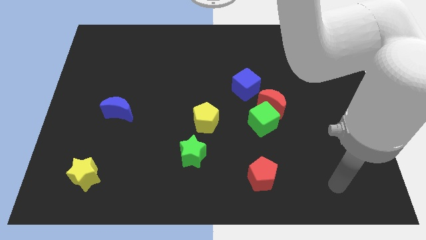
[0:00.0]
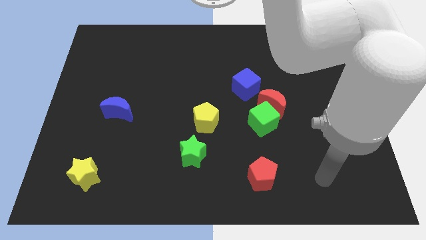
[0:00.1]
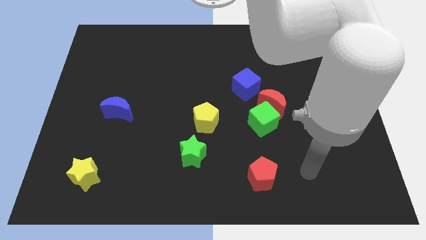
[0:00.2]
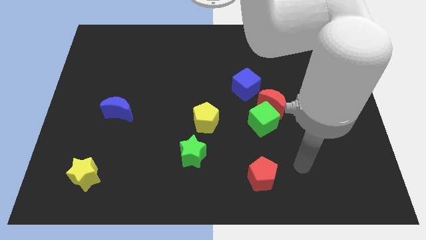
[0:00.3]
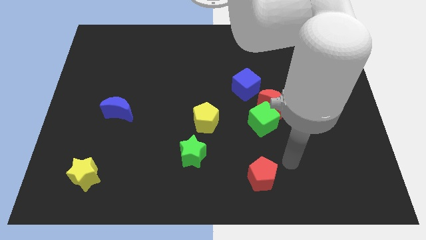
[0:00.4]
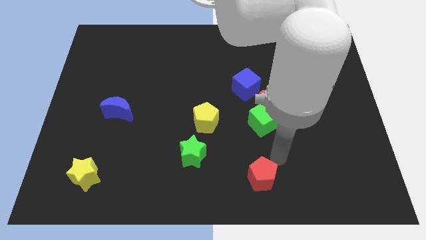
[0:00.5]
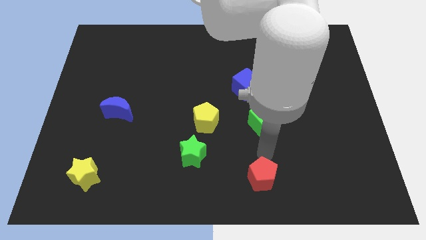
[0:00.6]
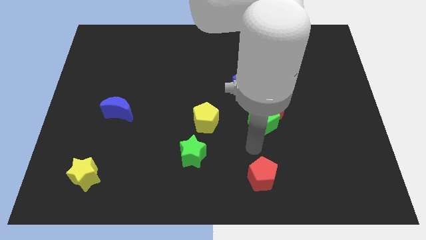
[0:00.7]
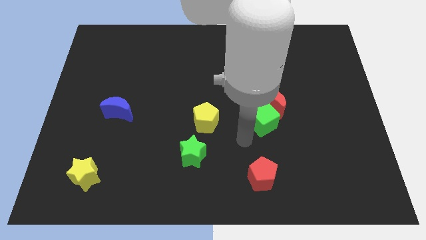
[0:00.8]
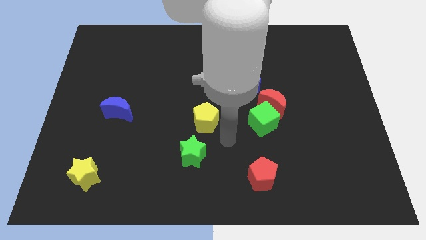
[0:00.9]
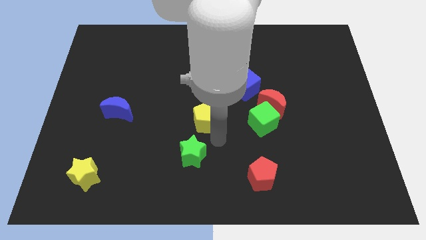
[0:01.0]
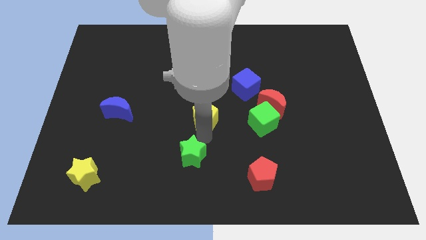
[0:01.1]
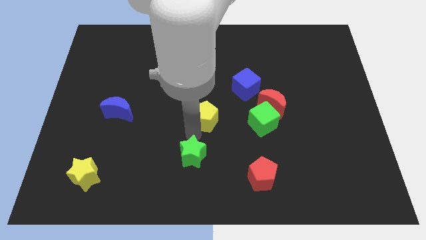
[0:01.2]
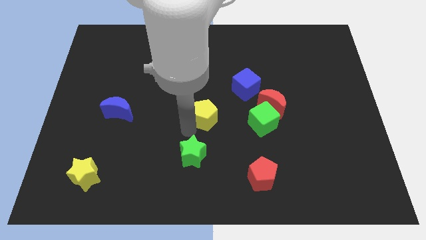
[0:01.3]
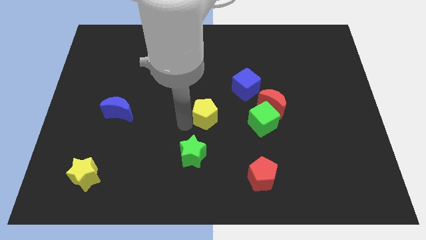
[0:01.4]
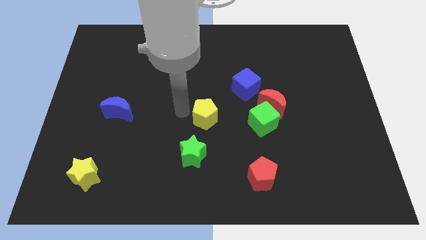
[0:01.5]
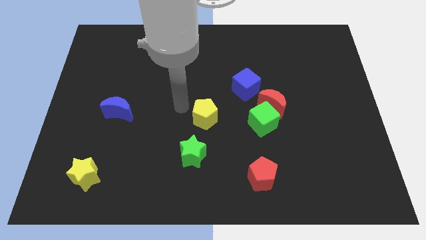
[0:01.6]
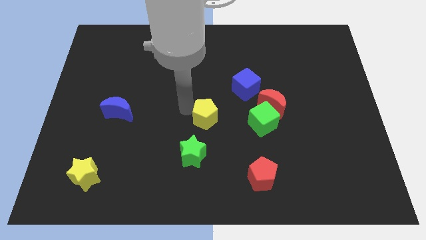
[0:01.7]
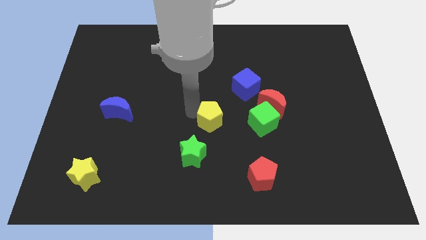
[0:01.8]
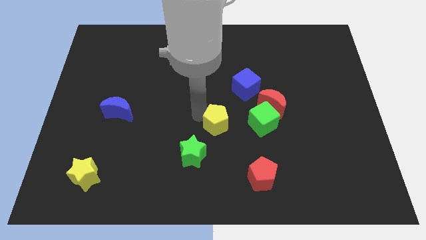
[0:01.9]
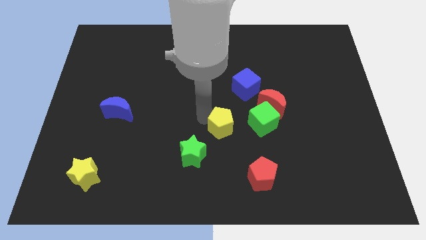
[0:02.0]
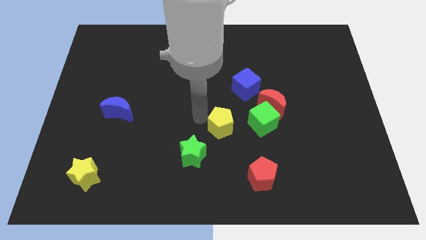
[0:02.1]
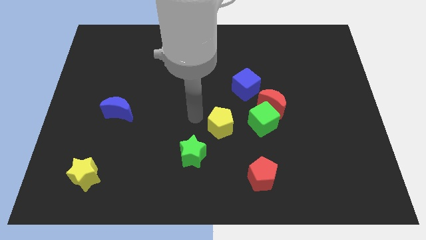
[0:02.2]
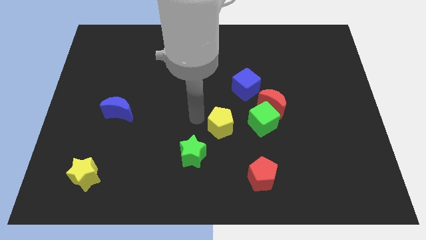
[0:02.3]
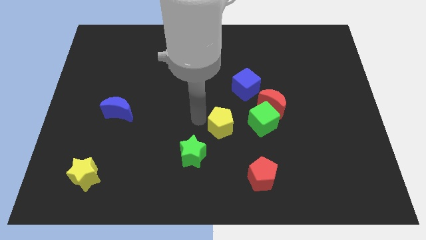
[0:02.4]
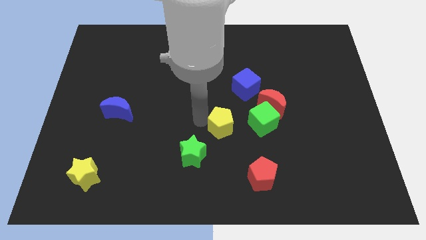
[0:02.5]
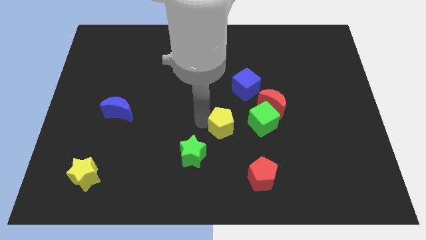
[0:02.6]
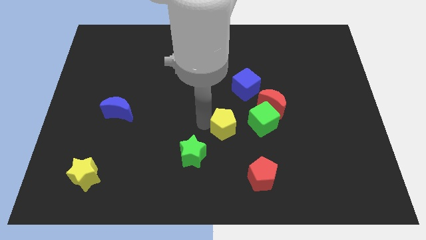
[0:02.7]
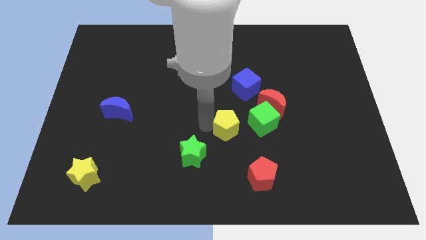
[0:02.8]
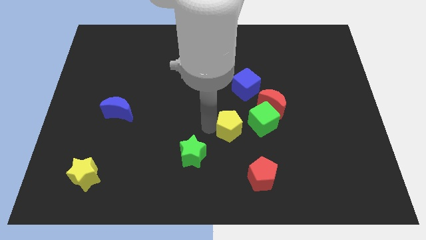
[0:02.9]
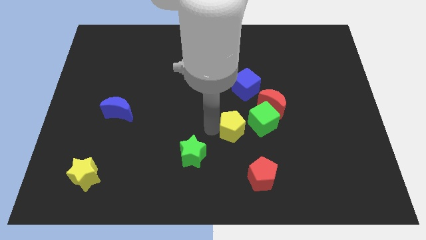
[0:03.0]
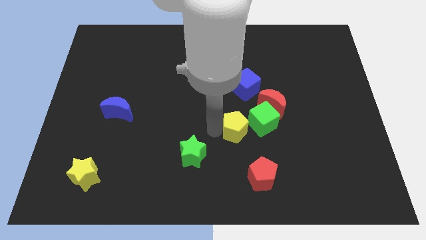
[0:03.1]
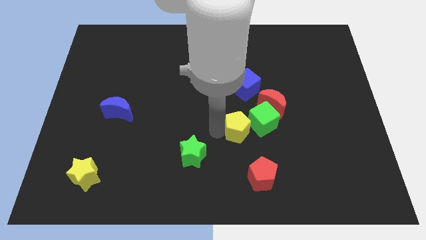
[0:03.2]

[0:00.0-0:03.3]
slightly push the yellow pentagon right

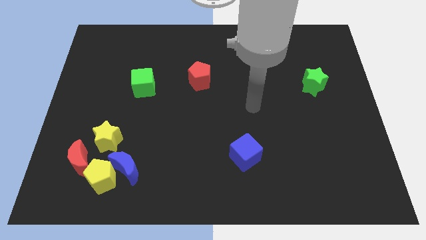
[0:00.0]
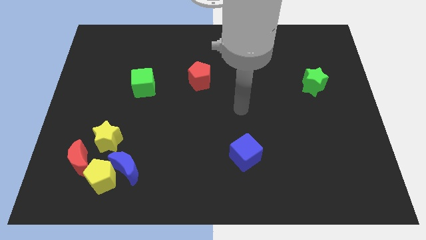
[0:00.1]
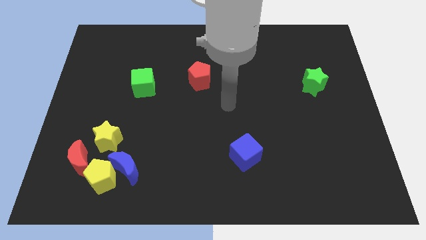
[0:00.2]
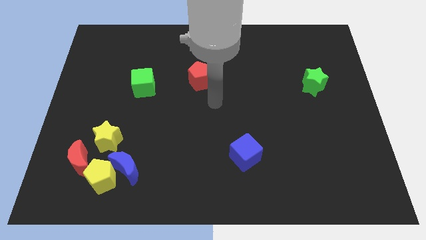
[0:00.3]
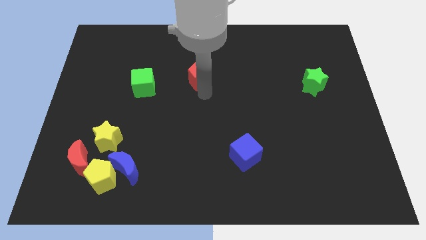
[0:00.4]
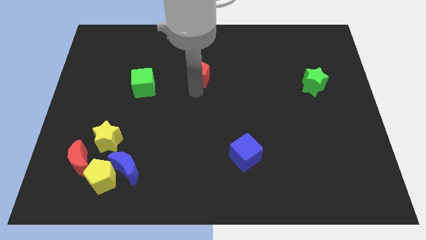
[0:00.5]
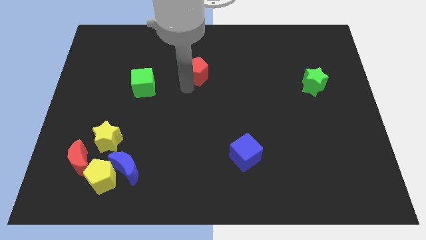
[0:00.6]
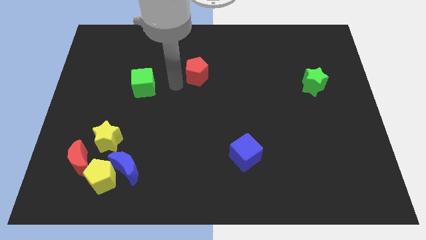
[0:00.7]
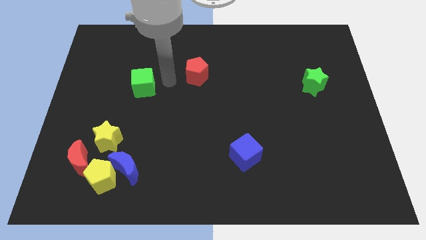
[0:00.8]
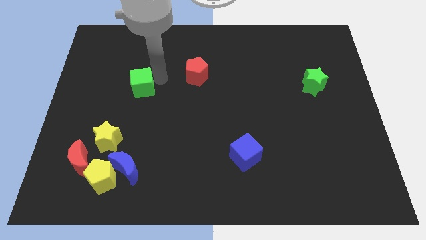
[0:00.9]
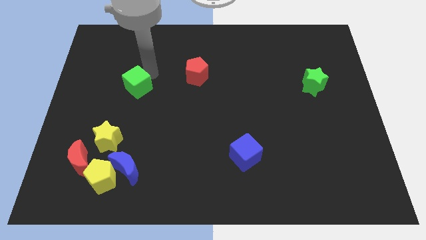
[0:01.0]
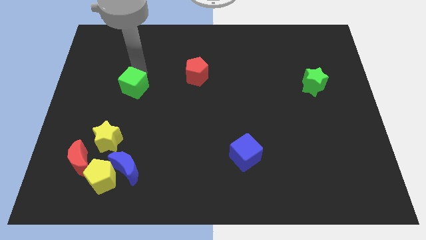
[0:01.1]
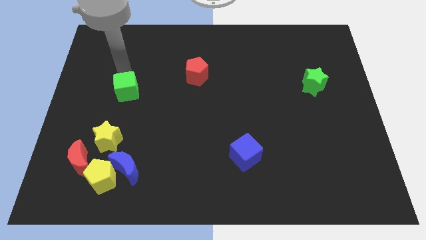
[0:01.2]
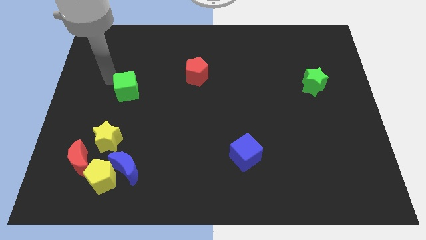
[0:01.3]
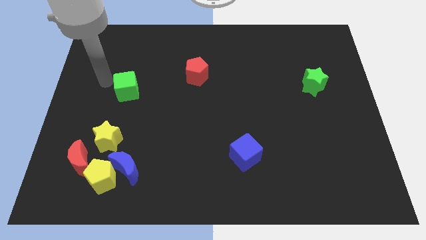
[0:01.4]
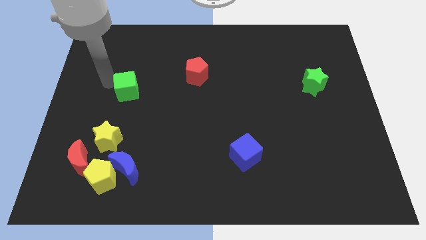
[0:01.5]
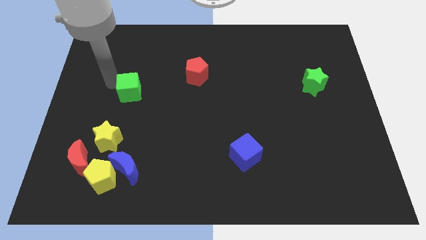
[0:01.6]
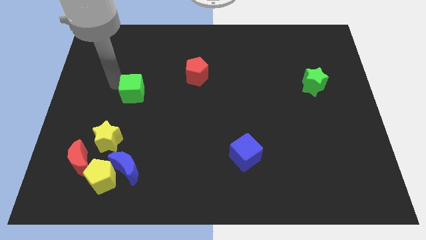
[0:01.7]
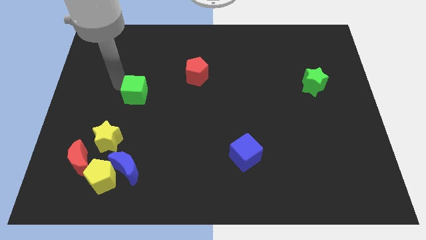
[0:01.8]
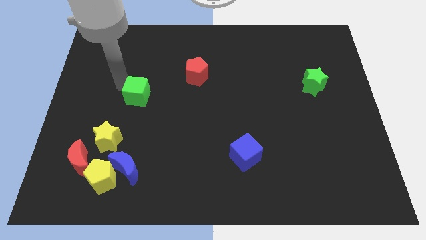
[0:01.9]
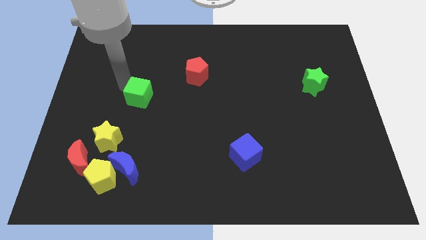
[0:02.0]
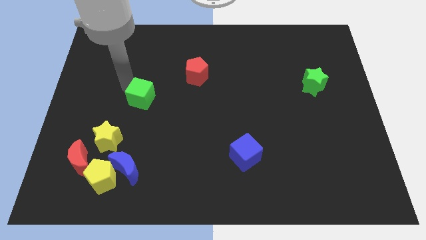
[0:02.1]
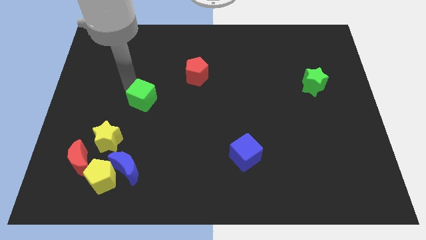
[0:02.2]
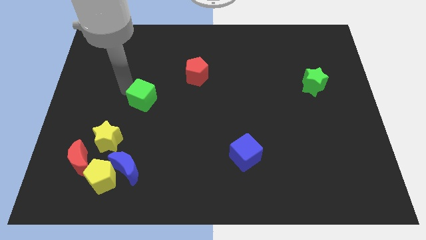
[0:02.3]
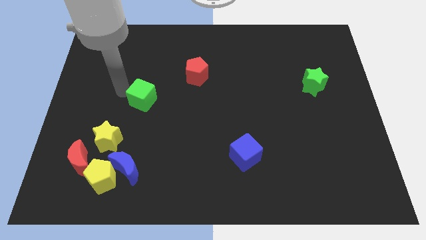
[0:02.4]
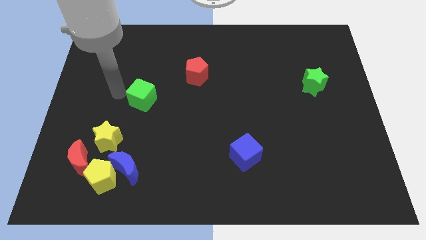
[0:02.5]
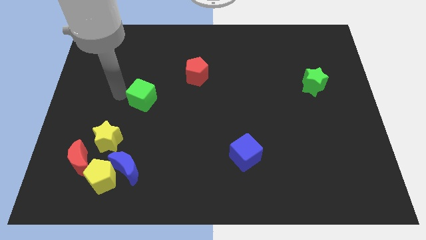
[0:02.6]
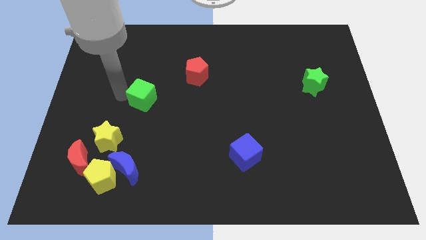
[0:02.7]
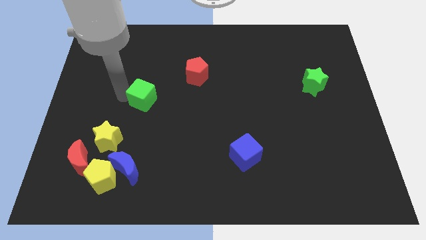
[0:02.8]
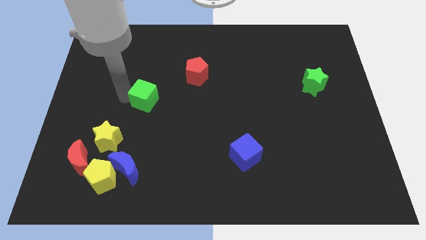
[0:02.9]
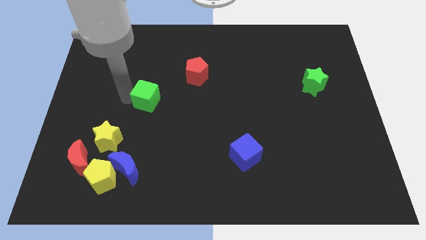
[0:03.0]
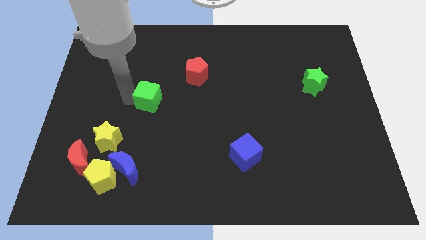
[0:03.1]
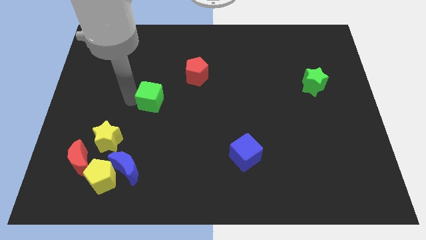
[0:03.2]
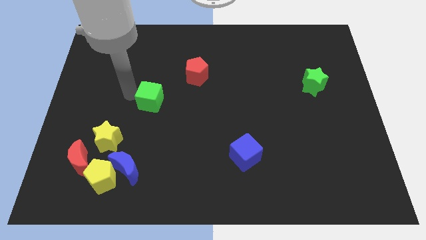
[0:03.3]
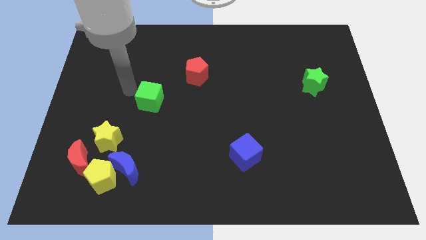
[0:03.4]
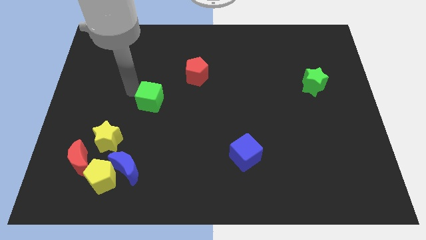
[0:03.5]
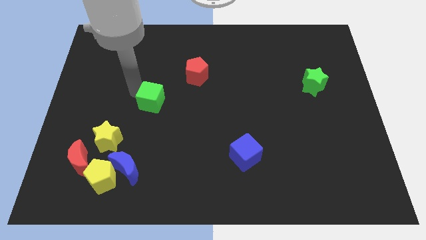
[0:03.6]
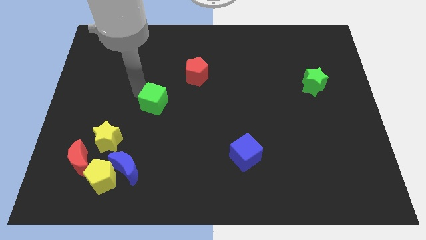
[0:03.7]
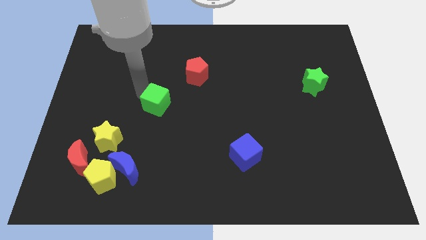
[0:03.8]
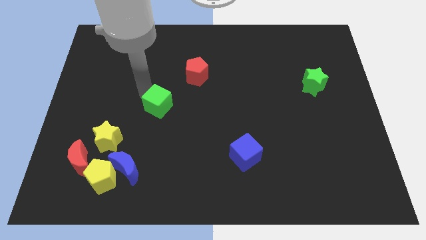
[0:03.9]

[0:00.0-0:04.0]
move the green cube a bit diagonally downwards and to the right

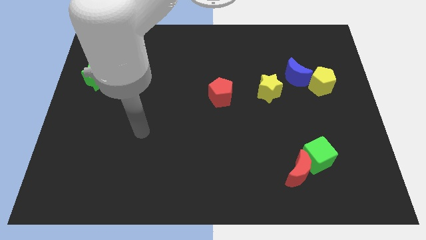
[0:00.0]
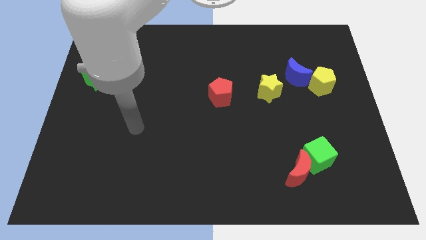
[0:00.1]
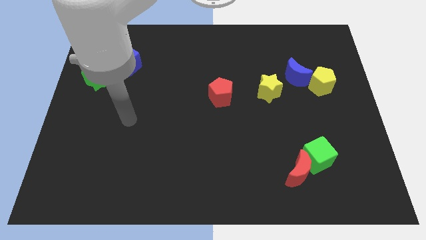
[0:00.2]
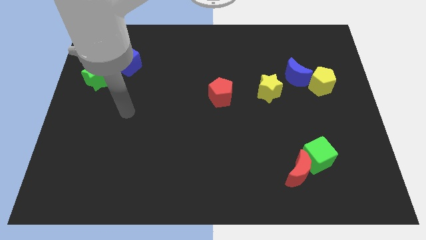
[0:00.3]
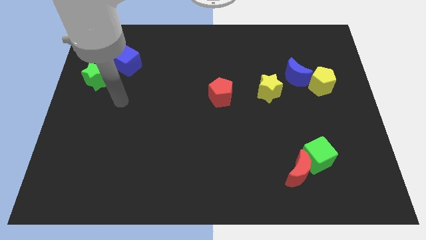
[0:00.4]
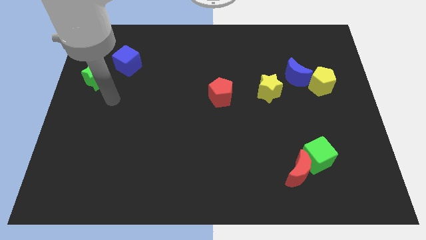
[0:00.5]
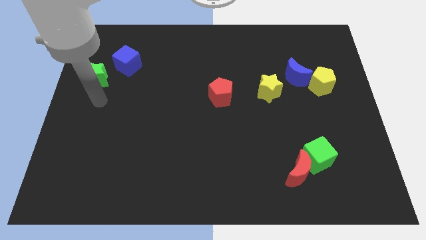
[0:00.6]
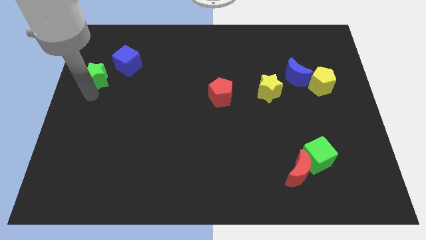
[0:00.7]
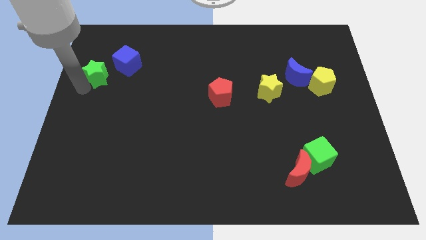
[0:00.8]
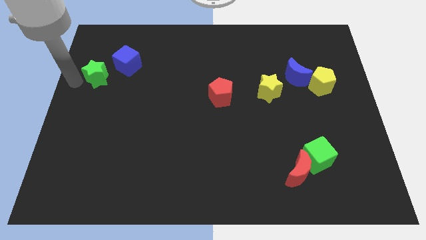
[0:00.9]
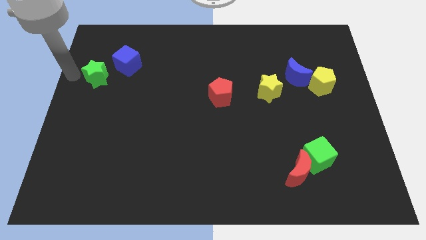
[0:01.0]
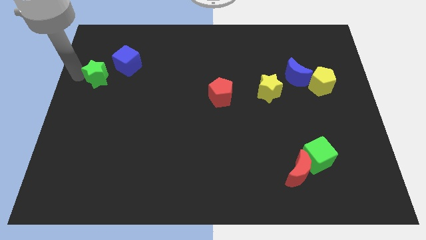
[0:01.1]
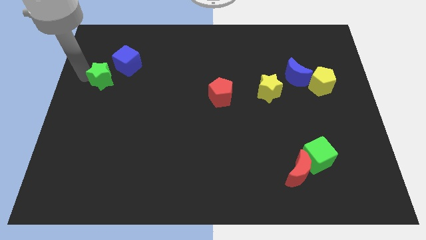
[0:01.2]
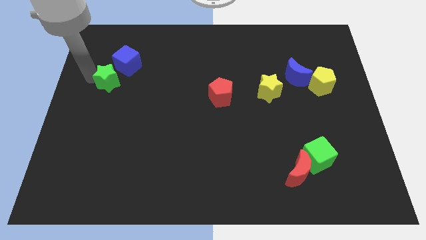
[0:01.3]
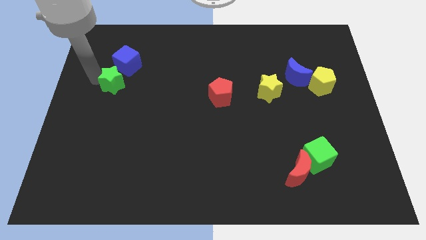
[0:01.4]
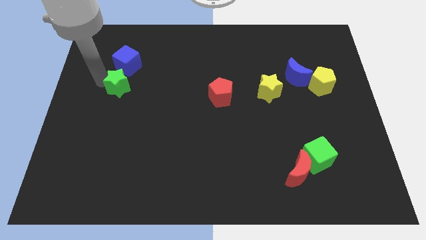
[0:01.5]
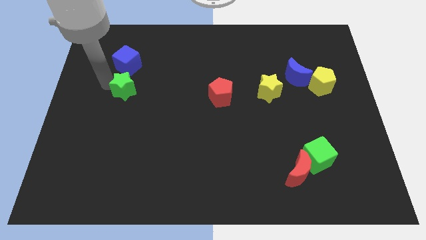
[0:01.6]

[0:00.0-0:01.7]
move the green star right a bit
